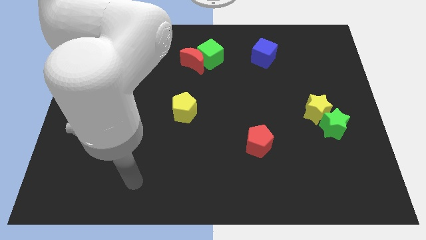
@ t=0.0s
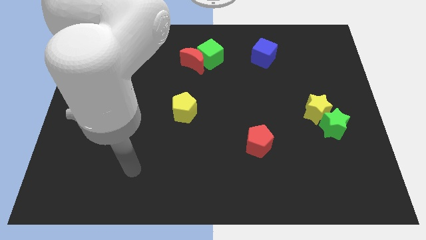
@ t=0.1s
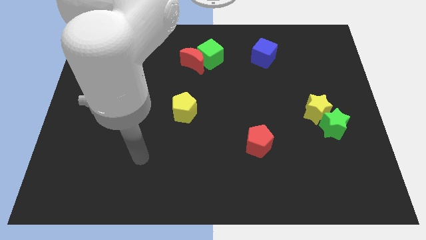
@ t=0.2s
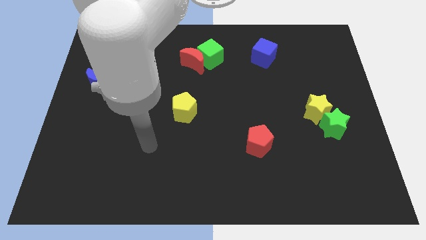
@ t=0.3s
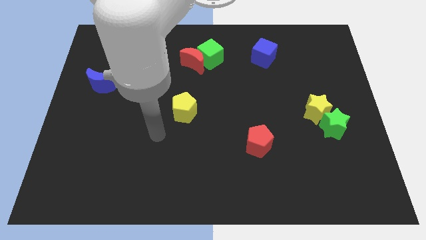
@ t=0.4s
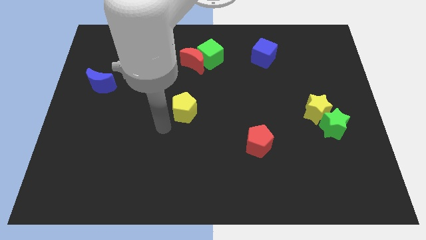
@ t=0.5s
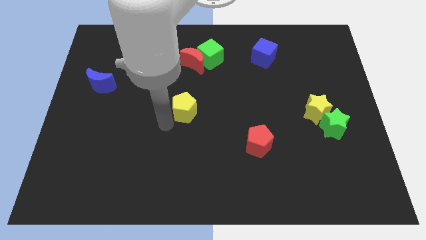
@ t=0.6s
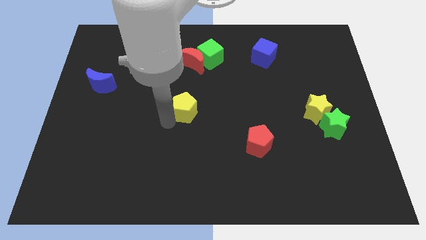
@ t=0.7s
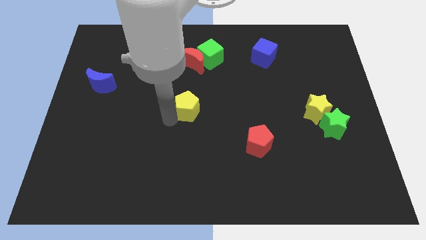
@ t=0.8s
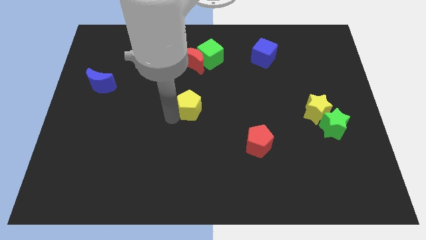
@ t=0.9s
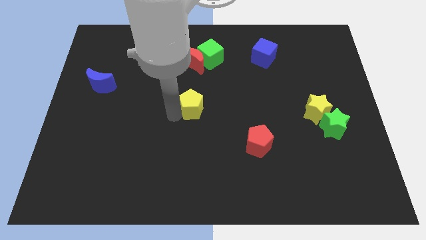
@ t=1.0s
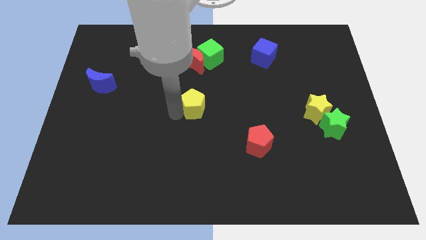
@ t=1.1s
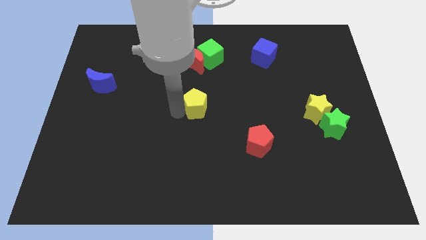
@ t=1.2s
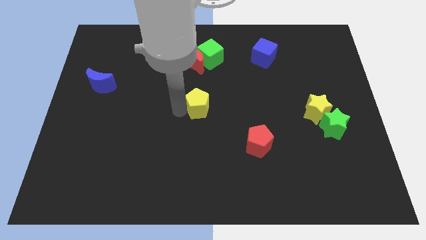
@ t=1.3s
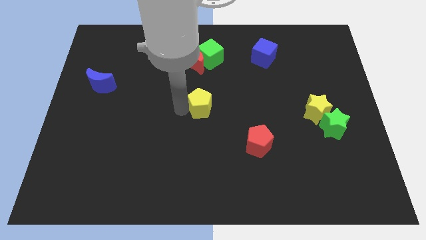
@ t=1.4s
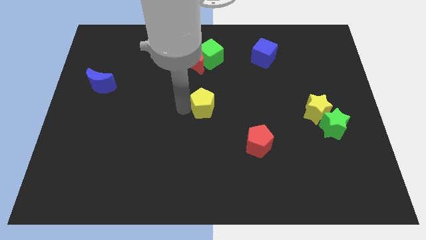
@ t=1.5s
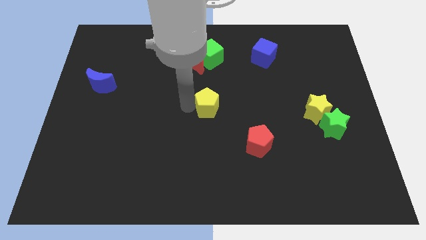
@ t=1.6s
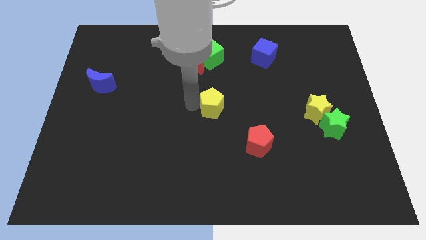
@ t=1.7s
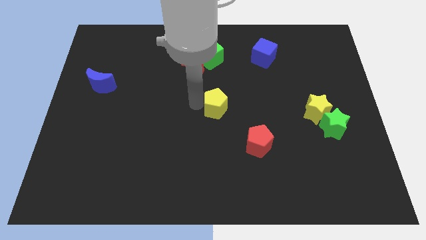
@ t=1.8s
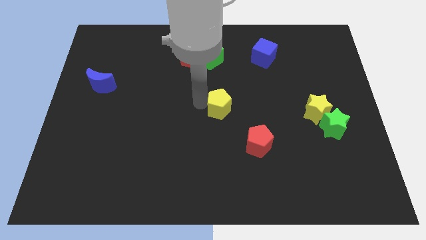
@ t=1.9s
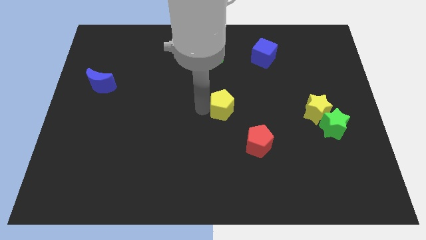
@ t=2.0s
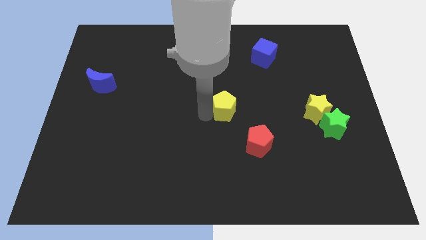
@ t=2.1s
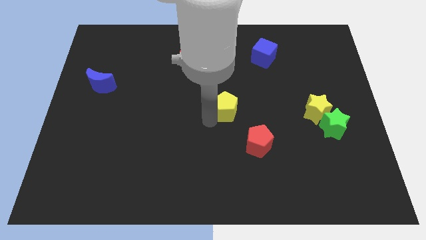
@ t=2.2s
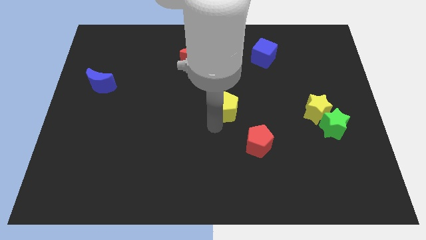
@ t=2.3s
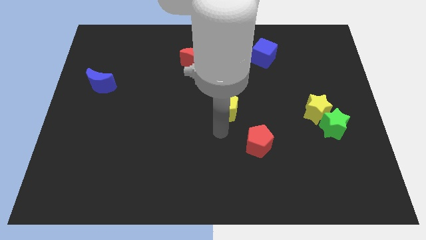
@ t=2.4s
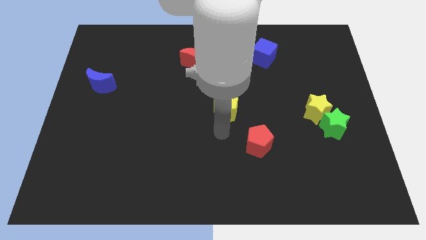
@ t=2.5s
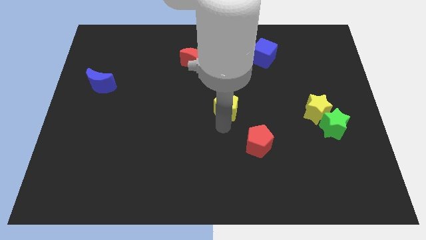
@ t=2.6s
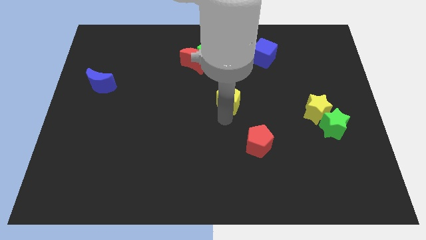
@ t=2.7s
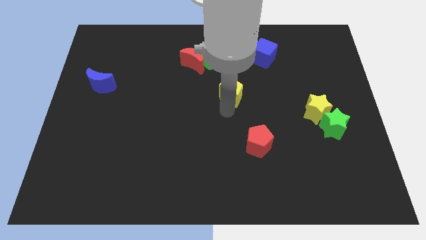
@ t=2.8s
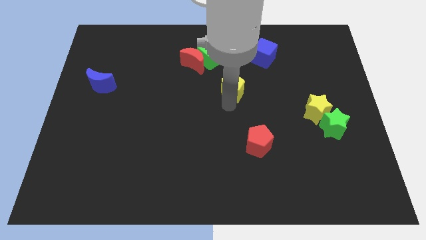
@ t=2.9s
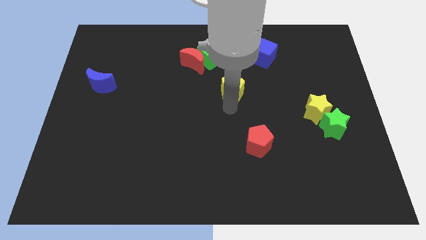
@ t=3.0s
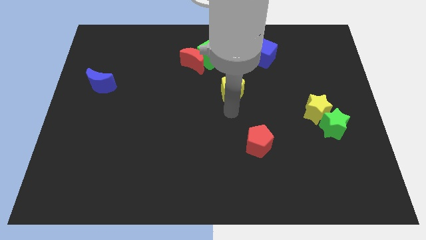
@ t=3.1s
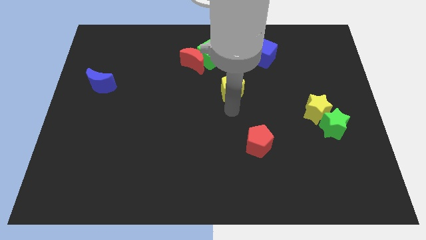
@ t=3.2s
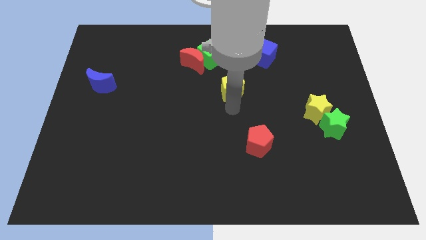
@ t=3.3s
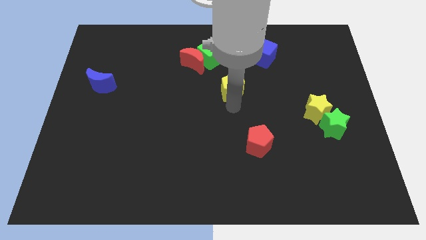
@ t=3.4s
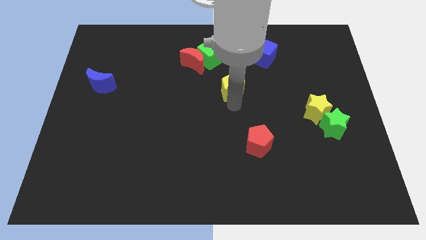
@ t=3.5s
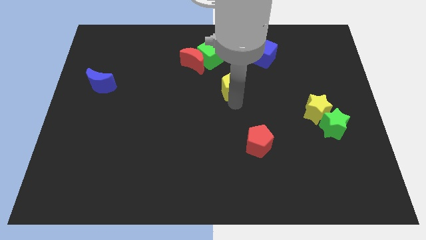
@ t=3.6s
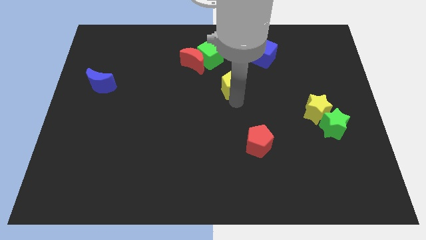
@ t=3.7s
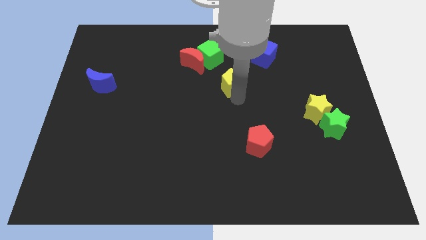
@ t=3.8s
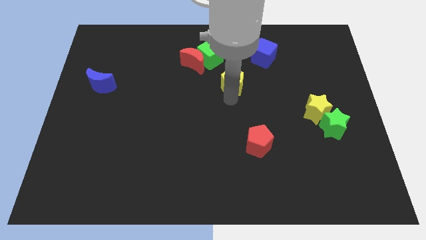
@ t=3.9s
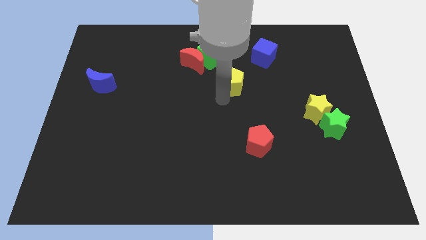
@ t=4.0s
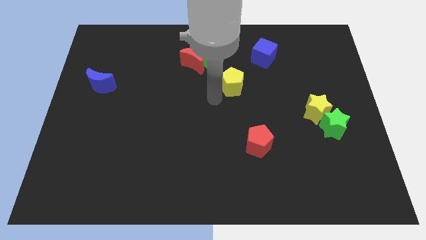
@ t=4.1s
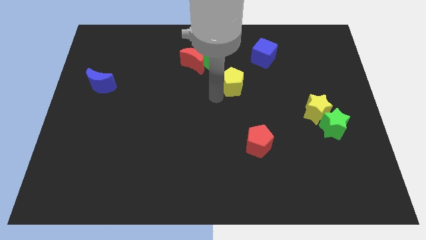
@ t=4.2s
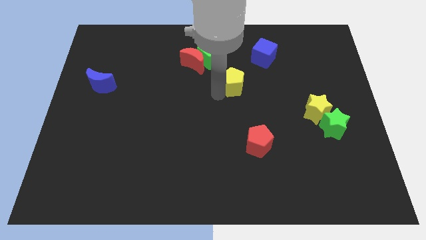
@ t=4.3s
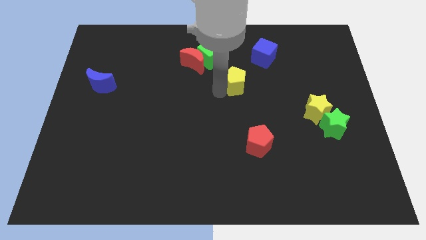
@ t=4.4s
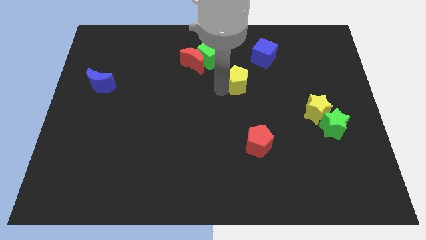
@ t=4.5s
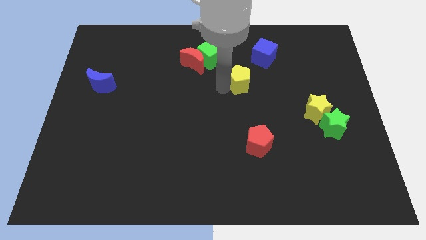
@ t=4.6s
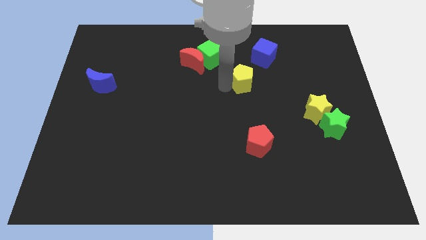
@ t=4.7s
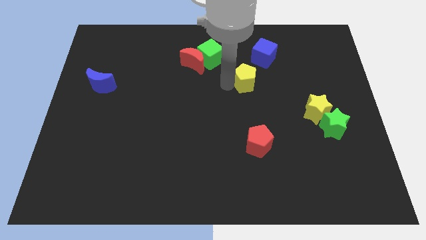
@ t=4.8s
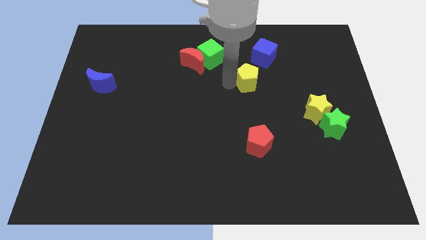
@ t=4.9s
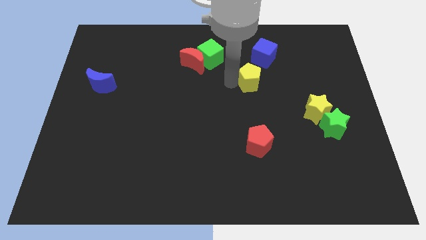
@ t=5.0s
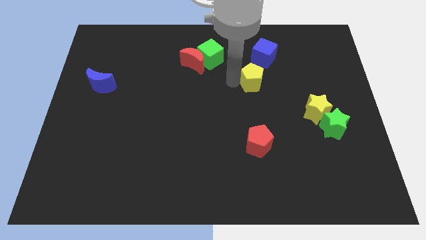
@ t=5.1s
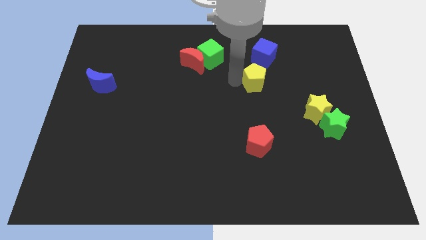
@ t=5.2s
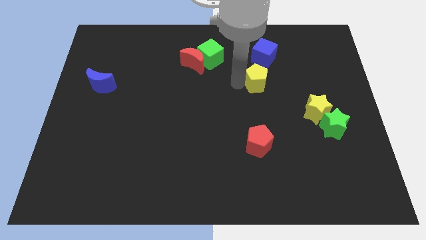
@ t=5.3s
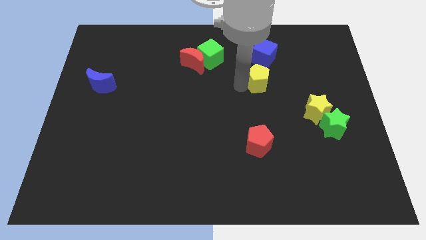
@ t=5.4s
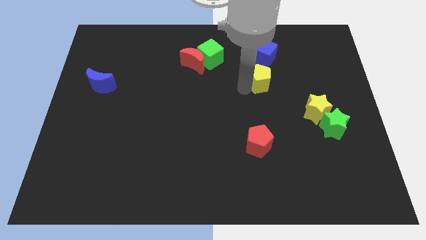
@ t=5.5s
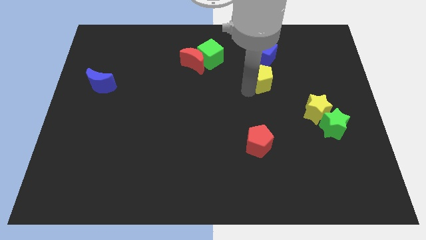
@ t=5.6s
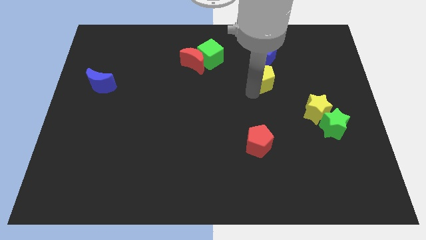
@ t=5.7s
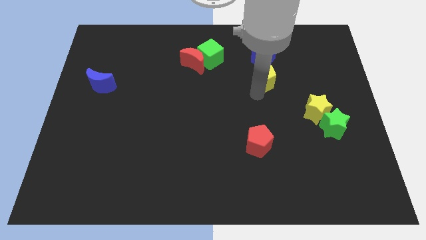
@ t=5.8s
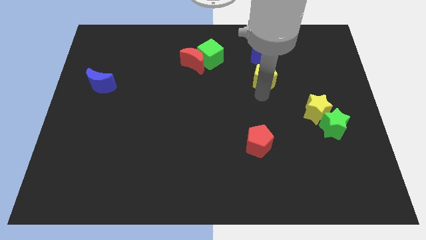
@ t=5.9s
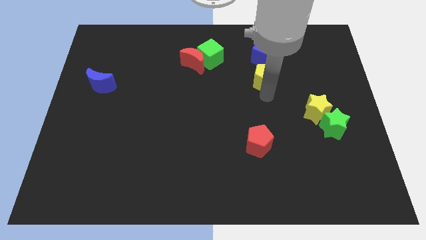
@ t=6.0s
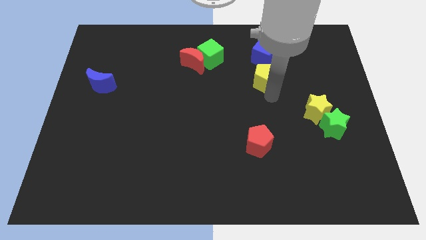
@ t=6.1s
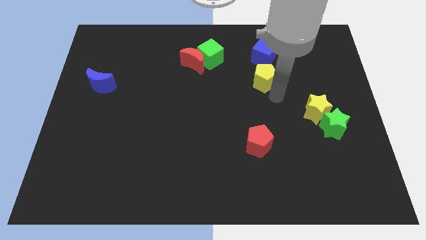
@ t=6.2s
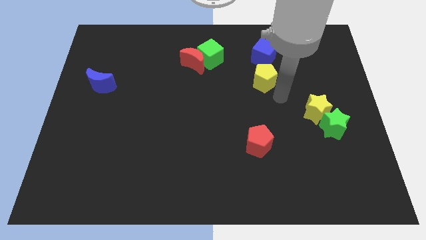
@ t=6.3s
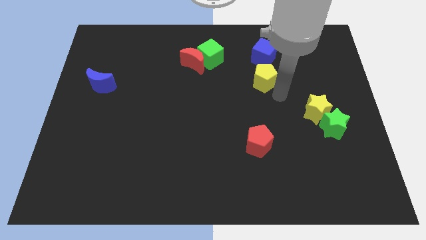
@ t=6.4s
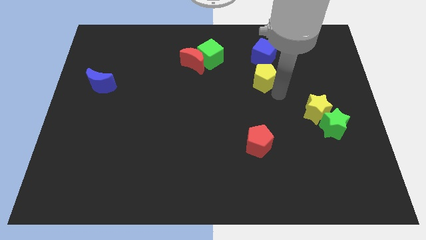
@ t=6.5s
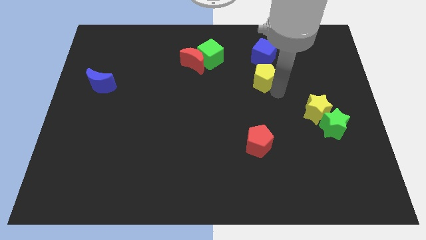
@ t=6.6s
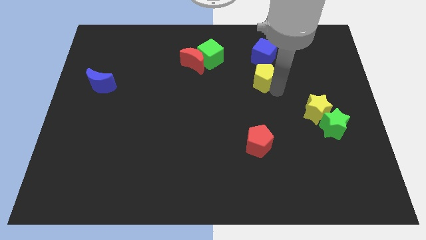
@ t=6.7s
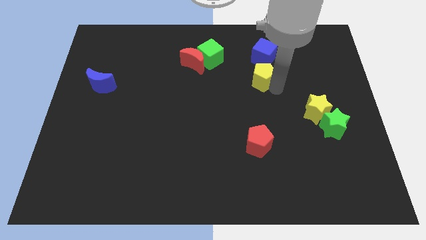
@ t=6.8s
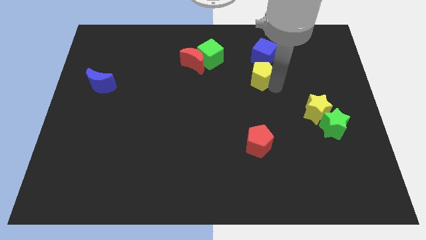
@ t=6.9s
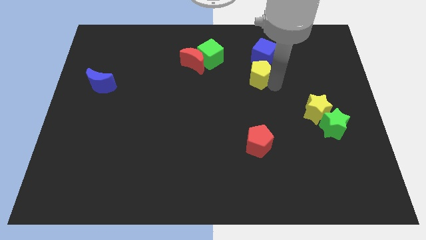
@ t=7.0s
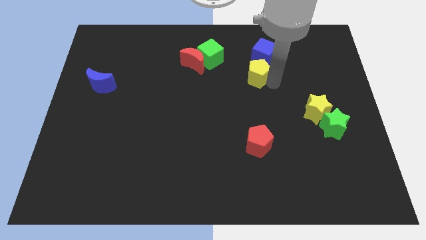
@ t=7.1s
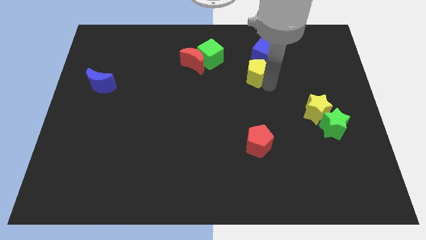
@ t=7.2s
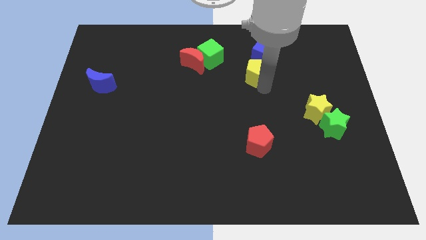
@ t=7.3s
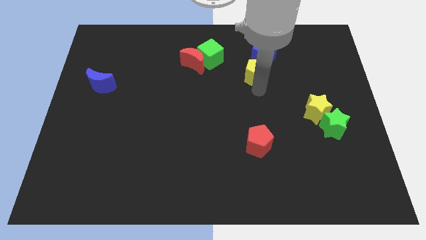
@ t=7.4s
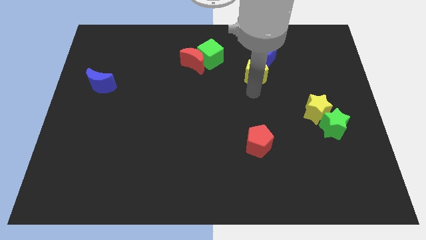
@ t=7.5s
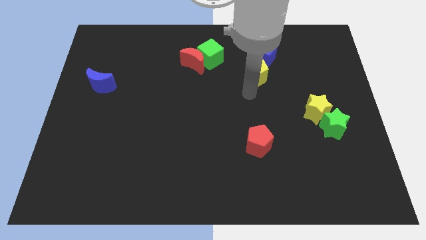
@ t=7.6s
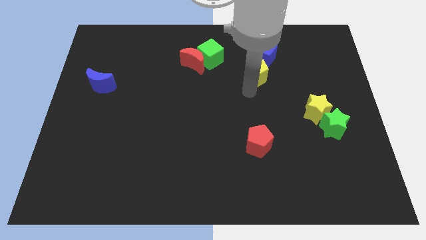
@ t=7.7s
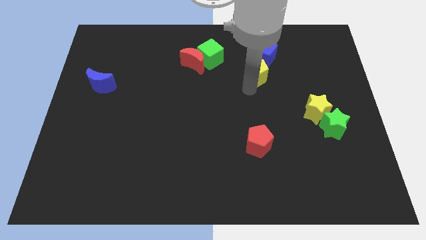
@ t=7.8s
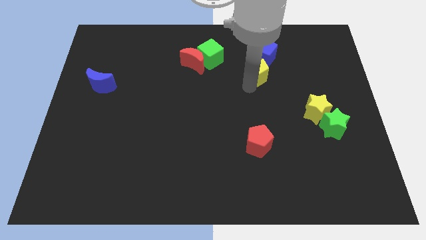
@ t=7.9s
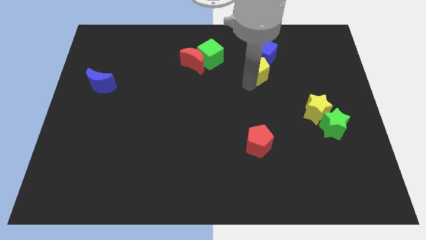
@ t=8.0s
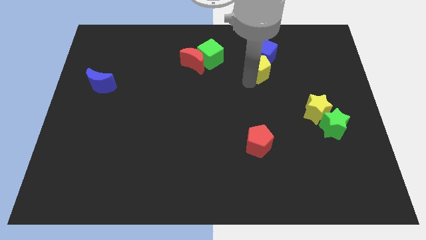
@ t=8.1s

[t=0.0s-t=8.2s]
slide the yellow pentagon towards the blue cube
